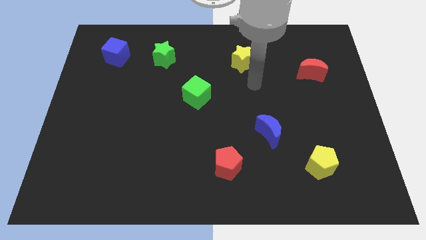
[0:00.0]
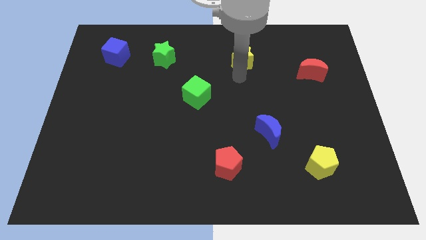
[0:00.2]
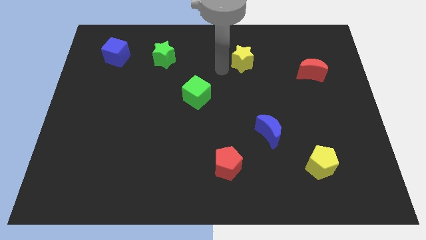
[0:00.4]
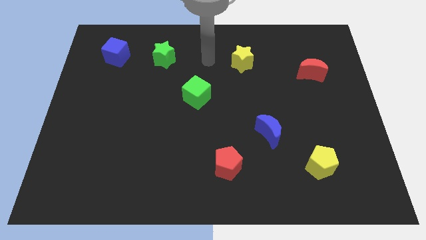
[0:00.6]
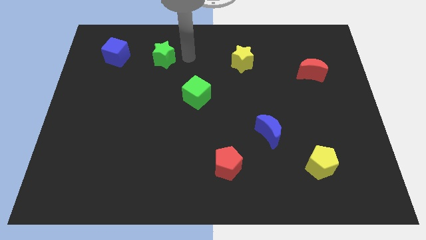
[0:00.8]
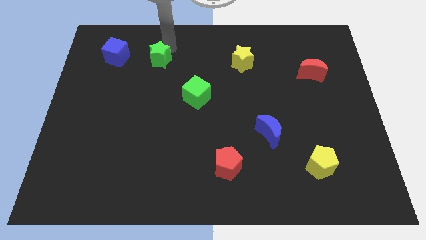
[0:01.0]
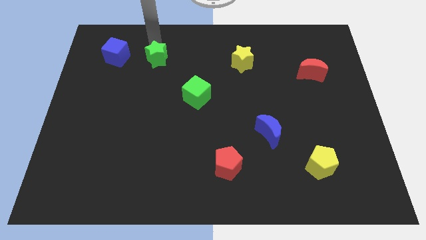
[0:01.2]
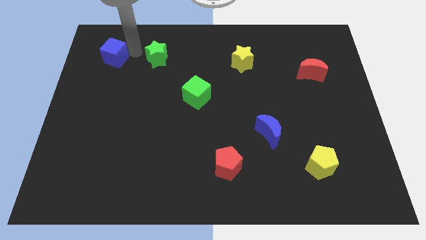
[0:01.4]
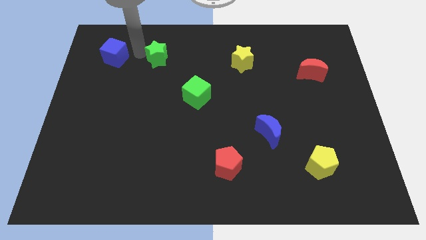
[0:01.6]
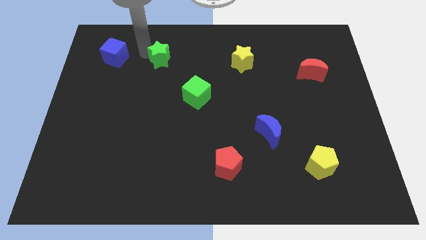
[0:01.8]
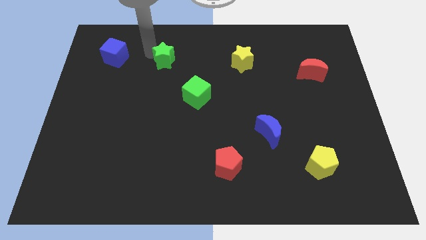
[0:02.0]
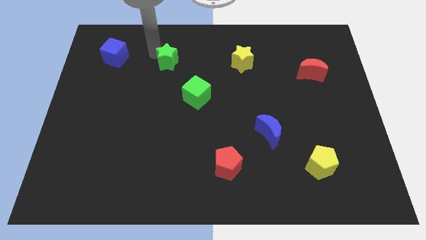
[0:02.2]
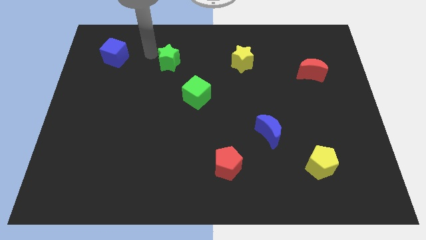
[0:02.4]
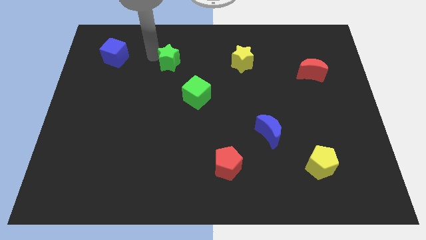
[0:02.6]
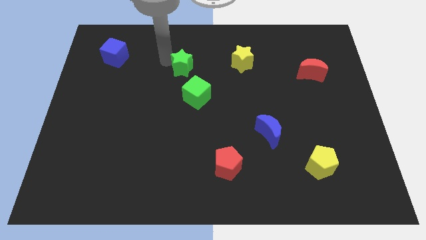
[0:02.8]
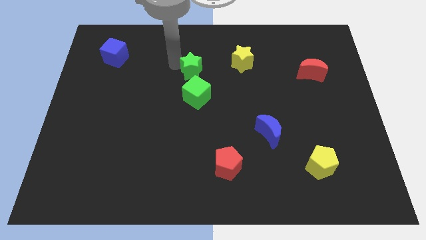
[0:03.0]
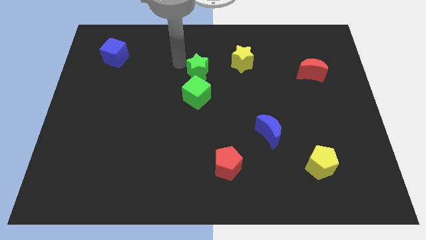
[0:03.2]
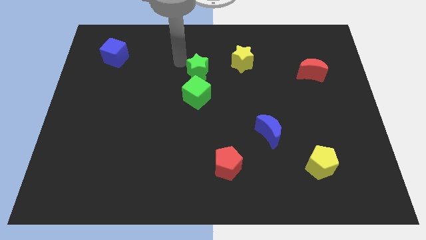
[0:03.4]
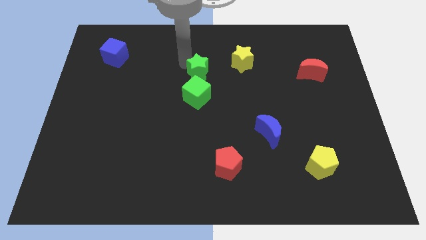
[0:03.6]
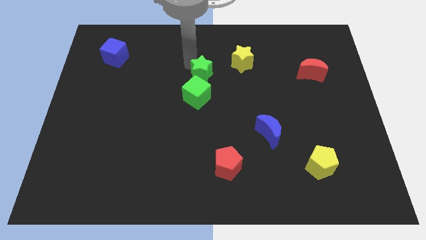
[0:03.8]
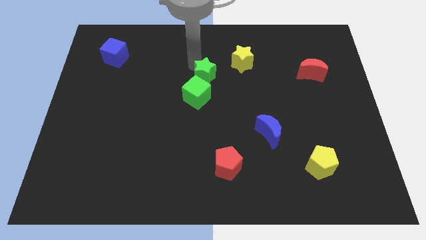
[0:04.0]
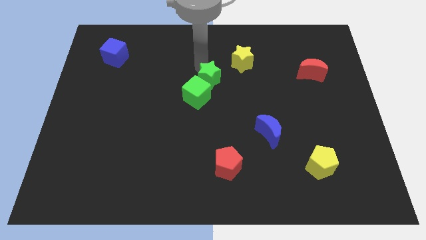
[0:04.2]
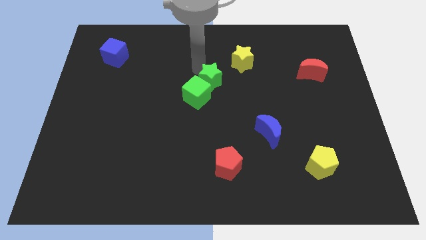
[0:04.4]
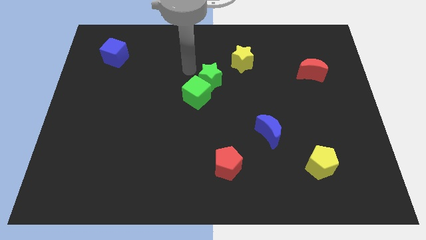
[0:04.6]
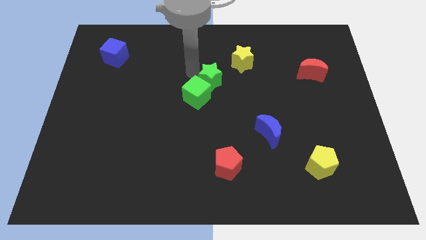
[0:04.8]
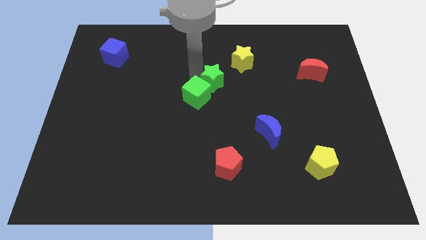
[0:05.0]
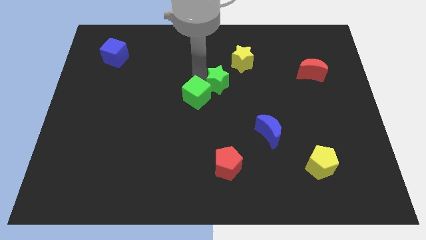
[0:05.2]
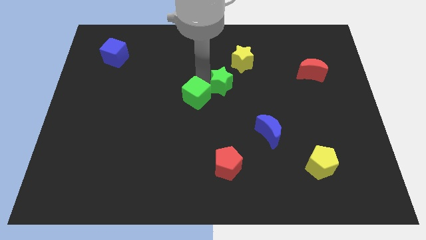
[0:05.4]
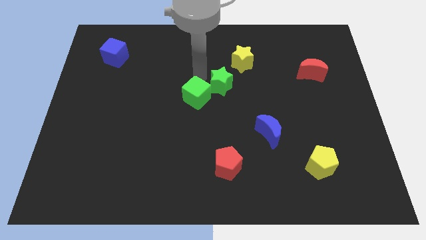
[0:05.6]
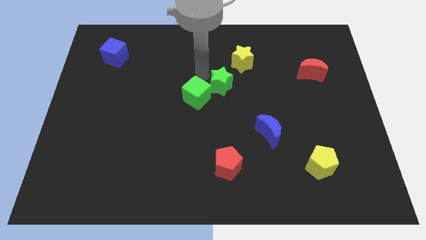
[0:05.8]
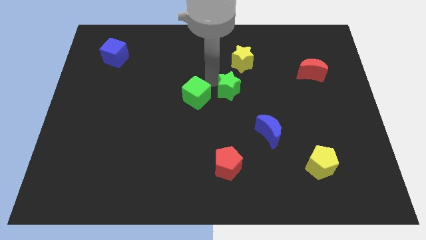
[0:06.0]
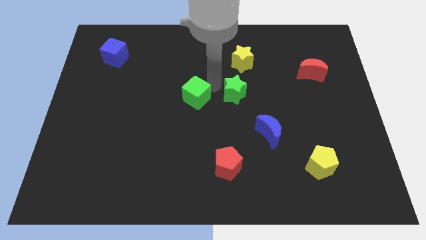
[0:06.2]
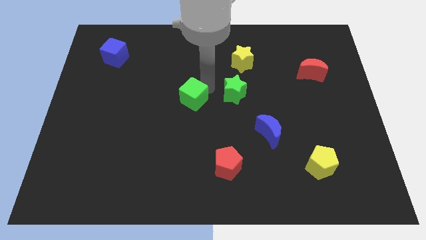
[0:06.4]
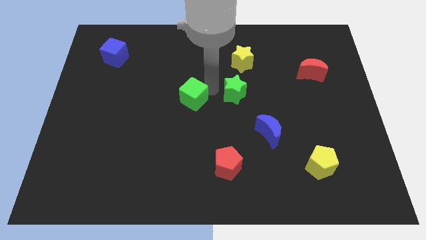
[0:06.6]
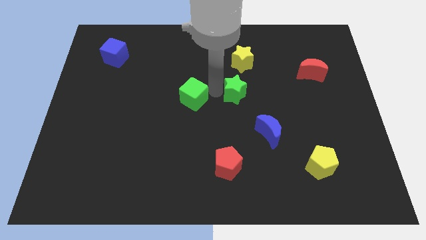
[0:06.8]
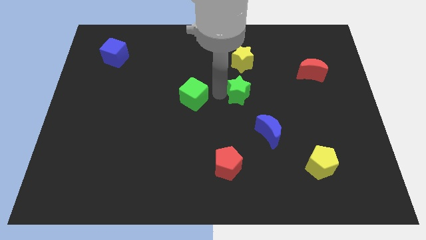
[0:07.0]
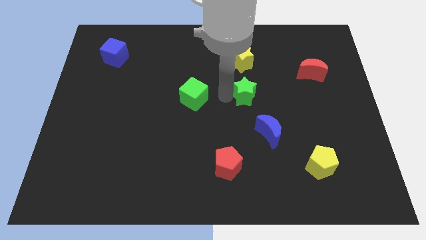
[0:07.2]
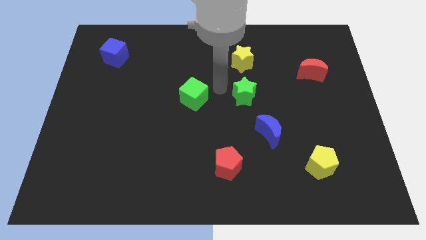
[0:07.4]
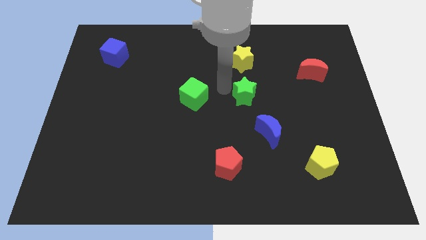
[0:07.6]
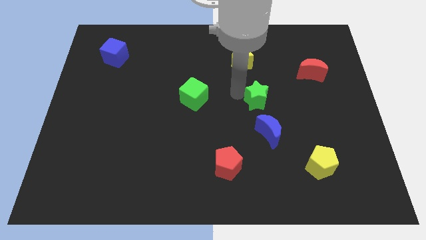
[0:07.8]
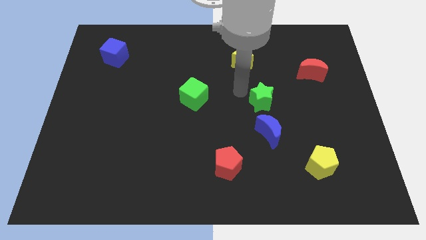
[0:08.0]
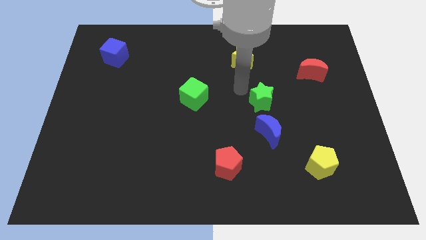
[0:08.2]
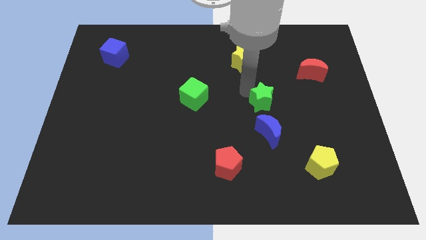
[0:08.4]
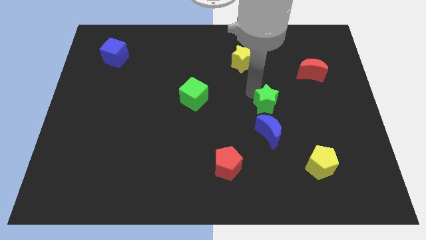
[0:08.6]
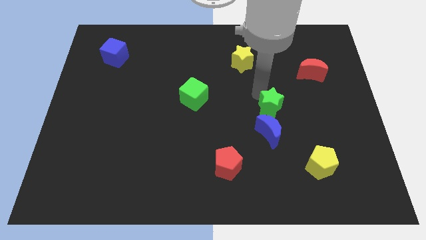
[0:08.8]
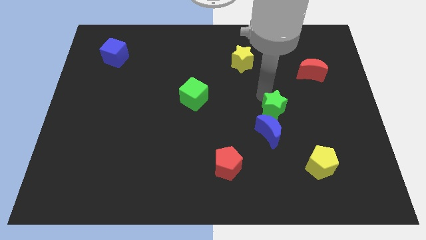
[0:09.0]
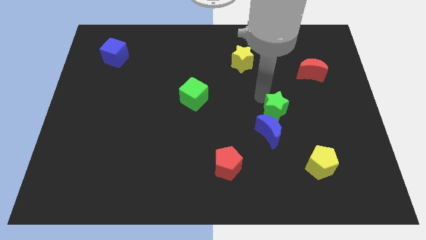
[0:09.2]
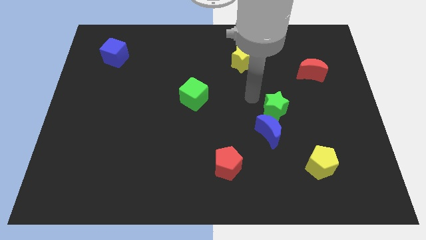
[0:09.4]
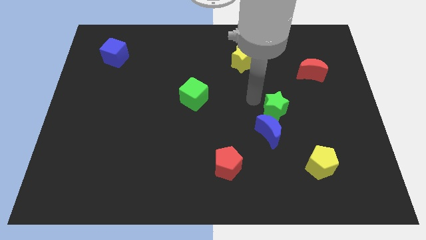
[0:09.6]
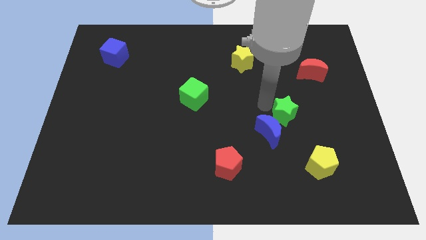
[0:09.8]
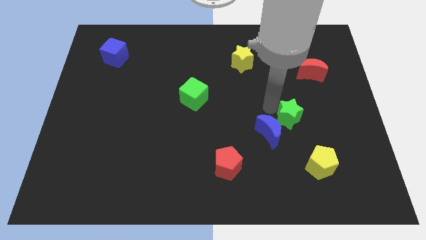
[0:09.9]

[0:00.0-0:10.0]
put the green star to the right of the blue moon

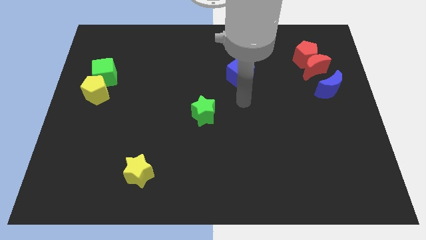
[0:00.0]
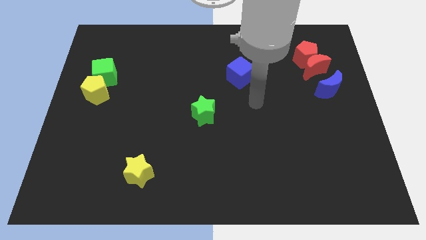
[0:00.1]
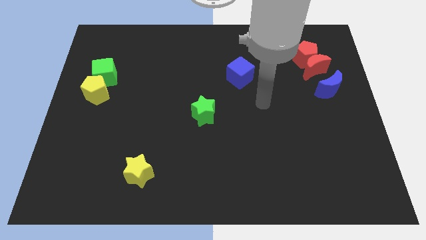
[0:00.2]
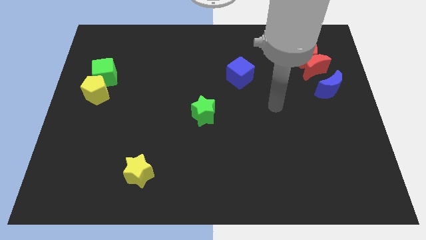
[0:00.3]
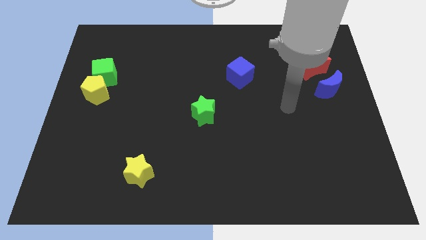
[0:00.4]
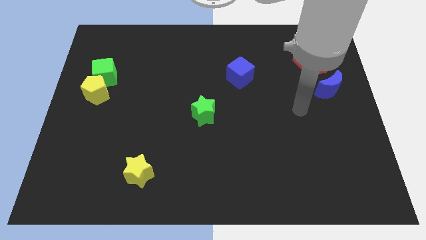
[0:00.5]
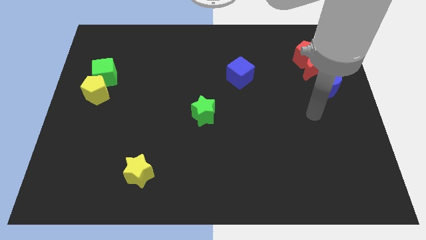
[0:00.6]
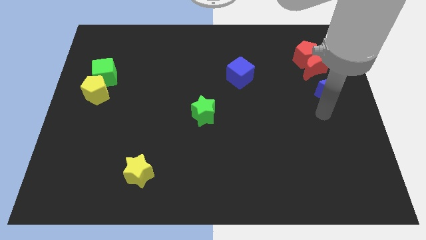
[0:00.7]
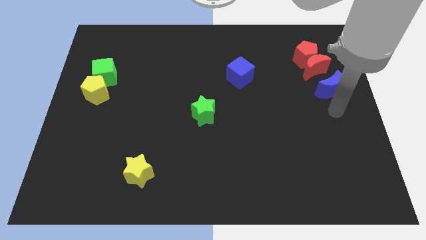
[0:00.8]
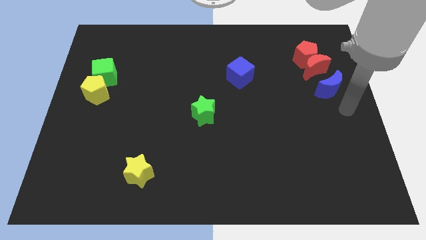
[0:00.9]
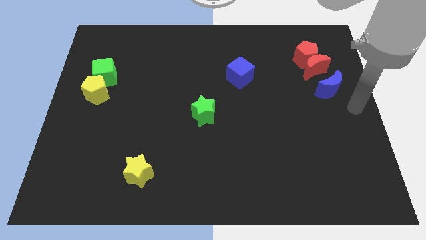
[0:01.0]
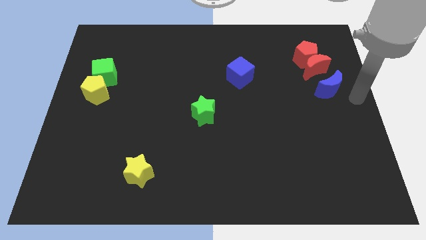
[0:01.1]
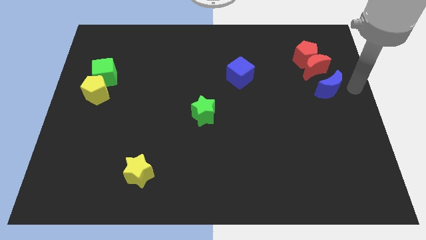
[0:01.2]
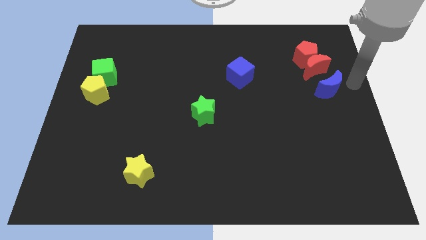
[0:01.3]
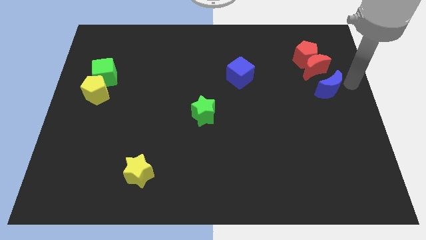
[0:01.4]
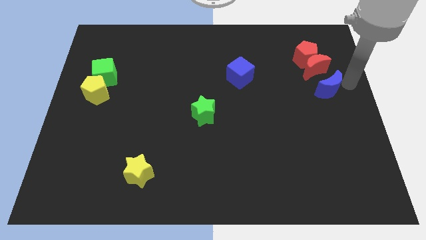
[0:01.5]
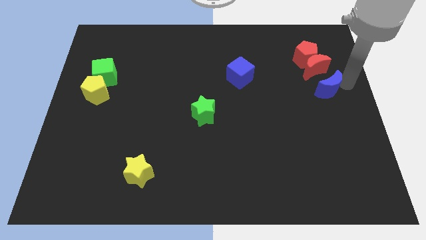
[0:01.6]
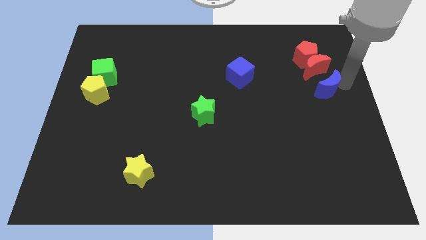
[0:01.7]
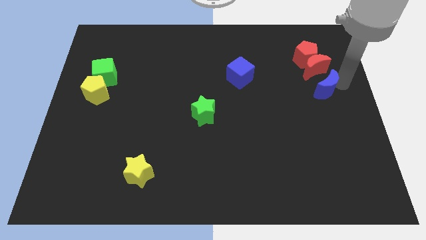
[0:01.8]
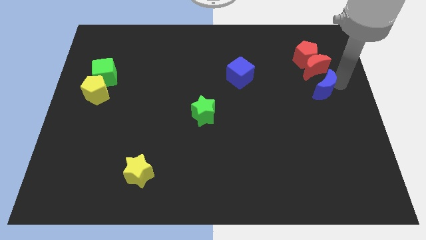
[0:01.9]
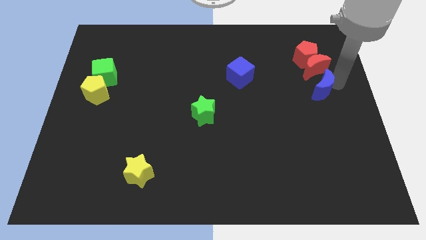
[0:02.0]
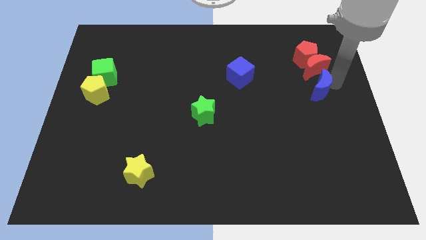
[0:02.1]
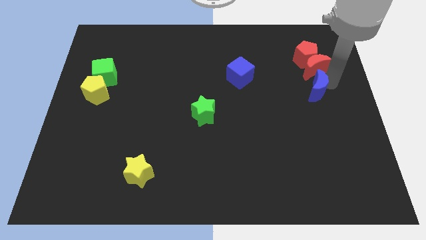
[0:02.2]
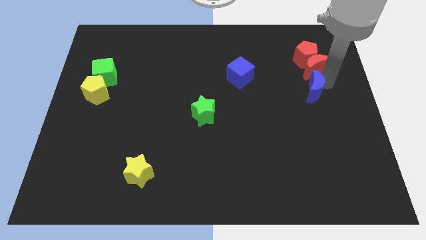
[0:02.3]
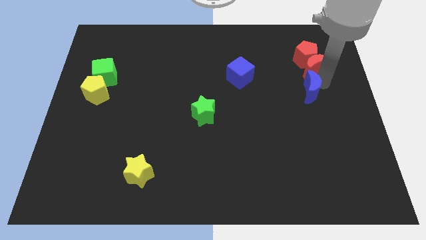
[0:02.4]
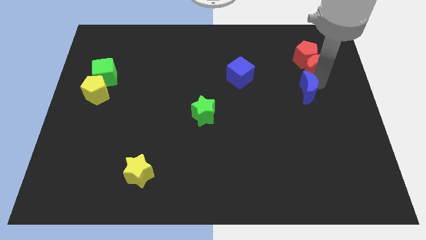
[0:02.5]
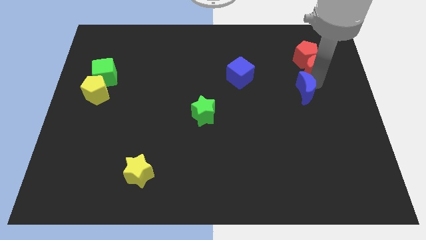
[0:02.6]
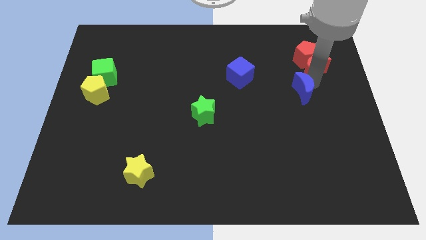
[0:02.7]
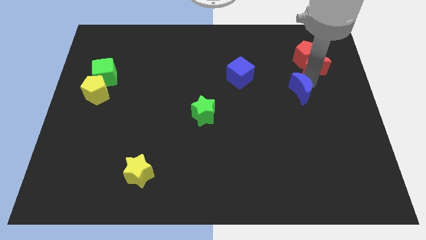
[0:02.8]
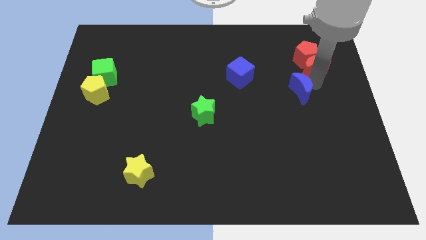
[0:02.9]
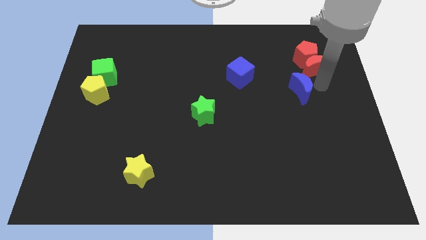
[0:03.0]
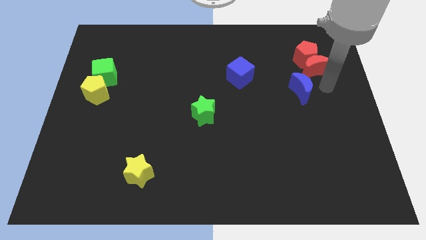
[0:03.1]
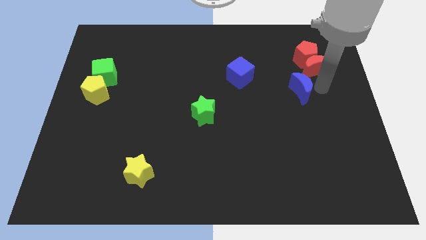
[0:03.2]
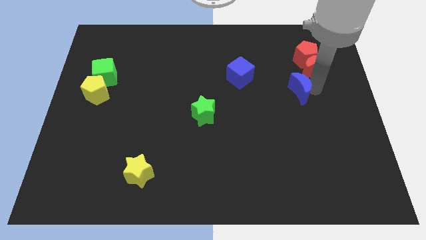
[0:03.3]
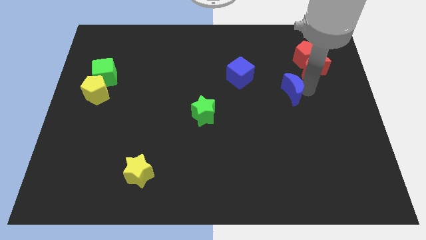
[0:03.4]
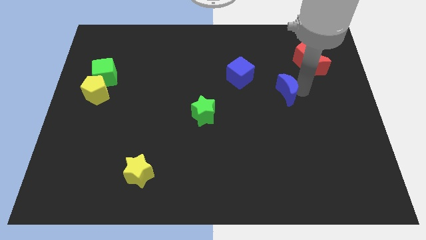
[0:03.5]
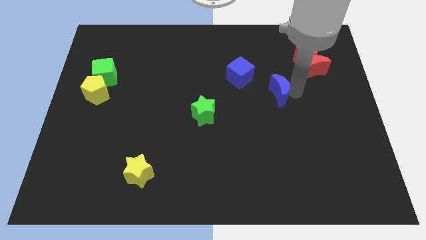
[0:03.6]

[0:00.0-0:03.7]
move the blue moon to the bottom right of the blue cube
